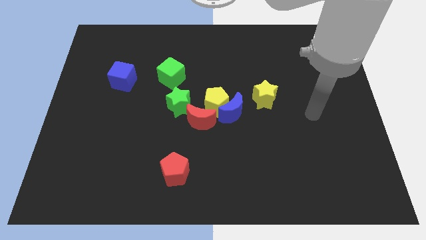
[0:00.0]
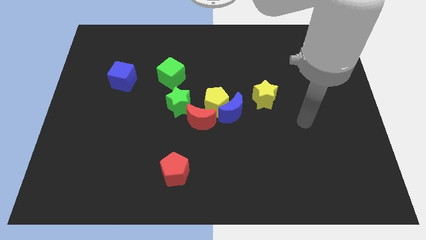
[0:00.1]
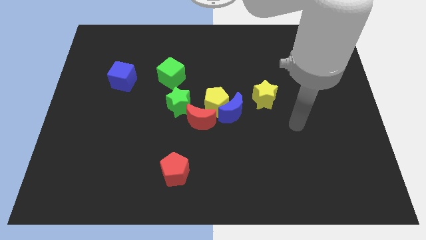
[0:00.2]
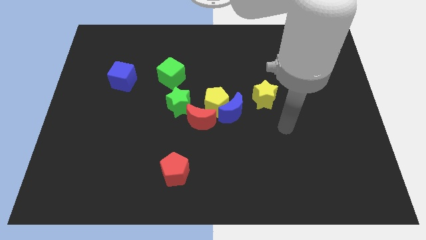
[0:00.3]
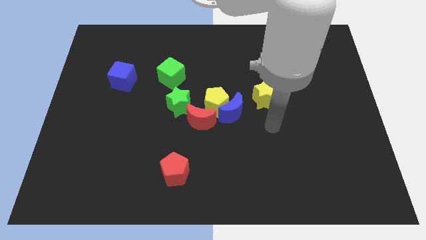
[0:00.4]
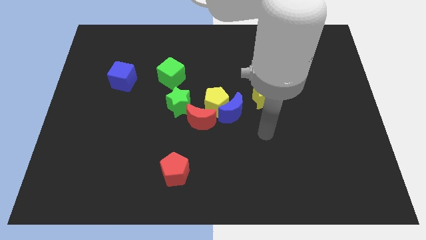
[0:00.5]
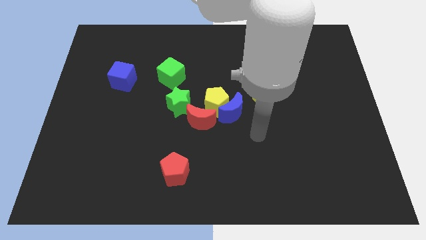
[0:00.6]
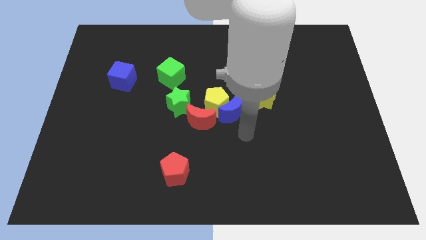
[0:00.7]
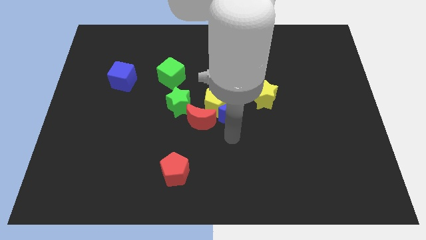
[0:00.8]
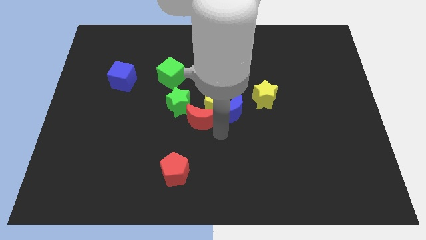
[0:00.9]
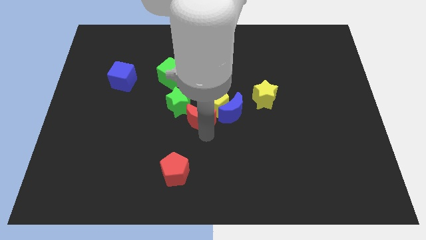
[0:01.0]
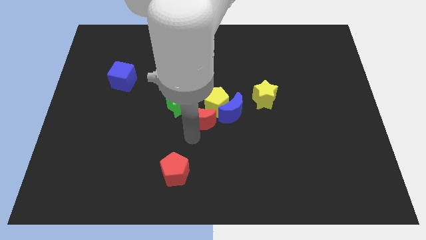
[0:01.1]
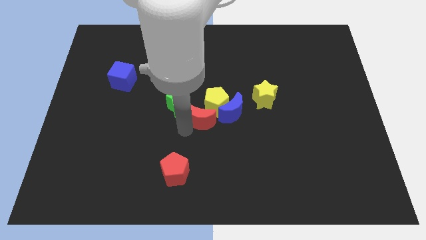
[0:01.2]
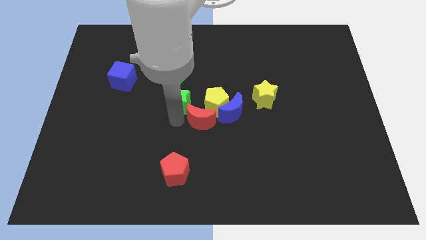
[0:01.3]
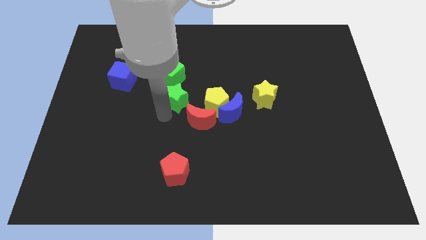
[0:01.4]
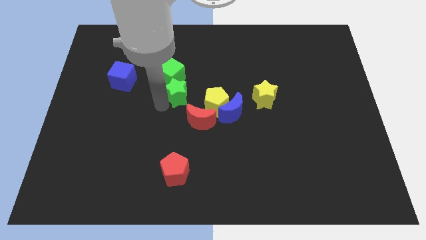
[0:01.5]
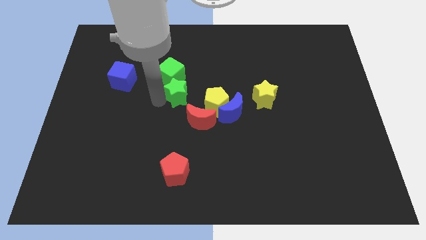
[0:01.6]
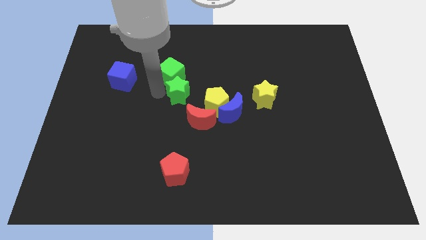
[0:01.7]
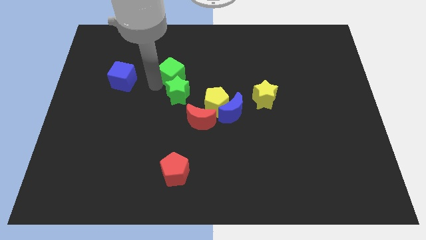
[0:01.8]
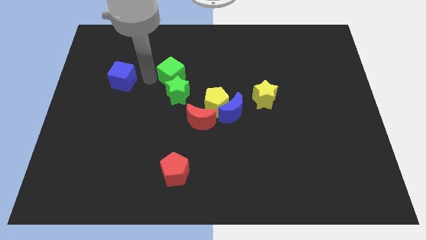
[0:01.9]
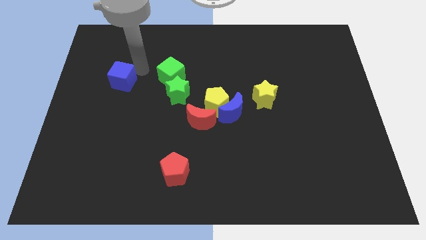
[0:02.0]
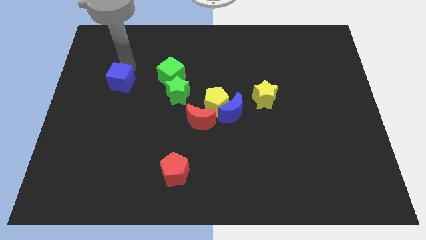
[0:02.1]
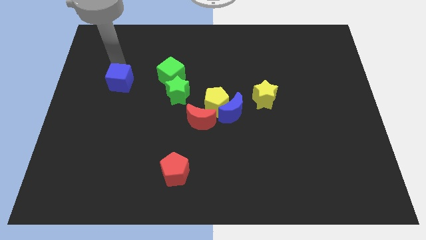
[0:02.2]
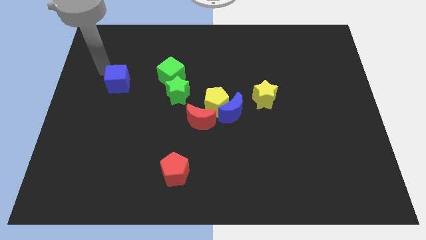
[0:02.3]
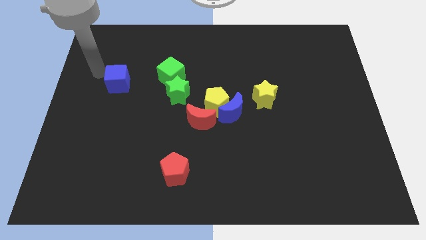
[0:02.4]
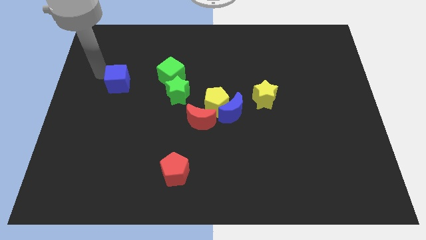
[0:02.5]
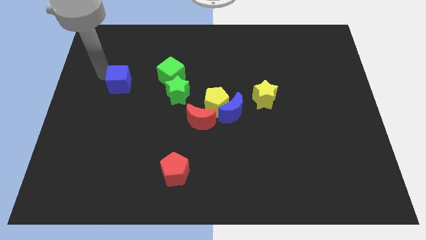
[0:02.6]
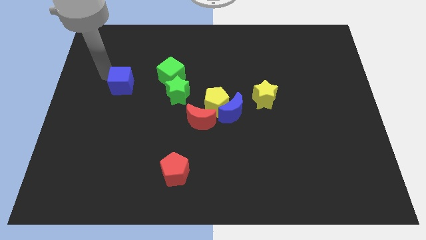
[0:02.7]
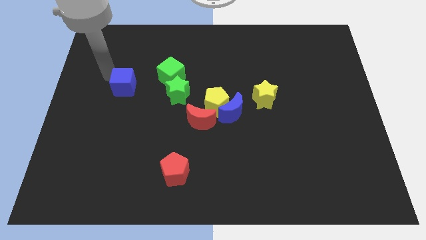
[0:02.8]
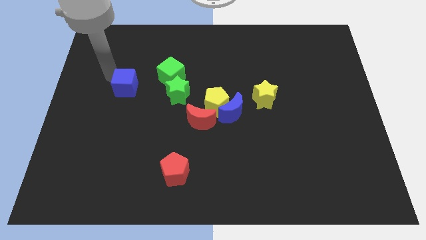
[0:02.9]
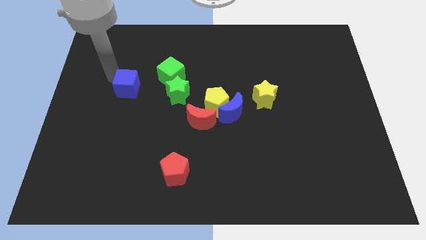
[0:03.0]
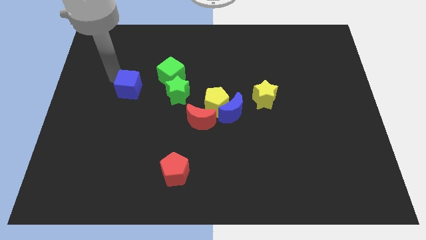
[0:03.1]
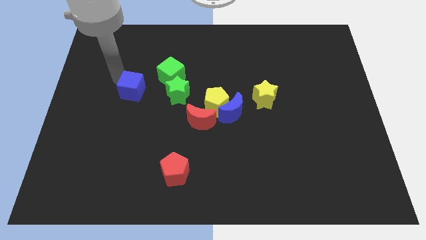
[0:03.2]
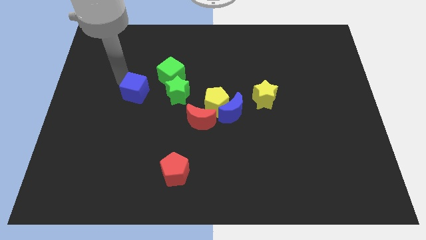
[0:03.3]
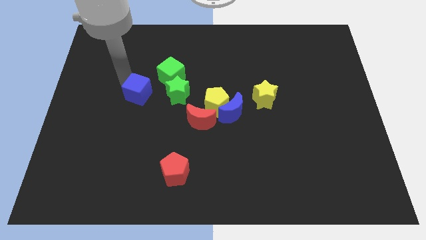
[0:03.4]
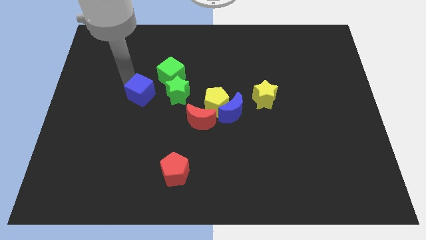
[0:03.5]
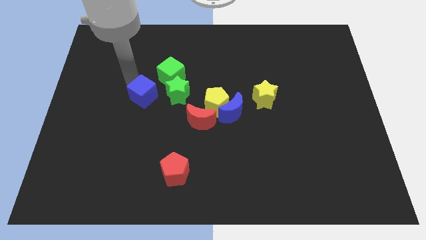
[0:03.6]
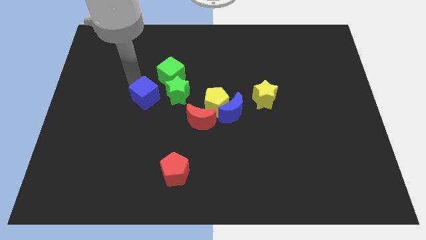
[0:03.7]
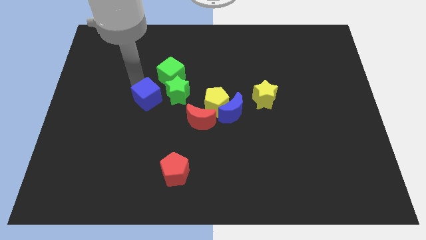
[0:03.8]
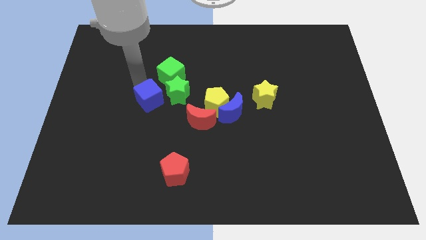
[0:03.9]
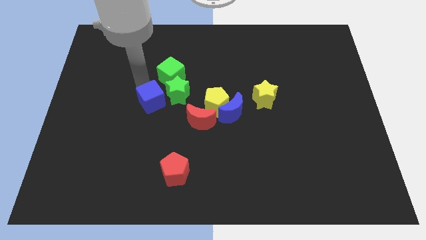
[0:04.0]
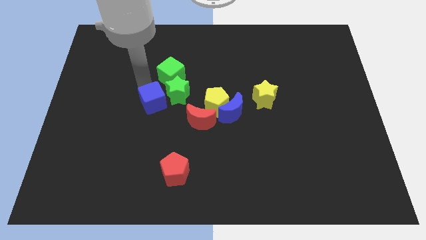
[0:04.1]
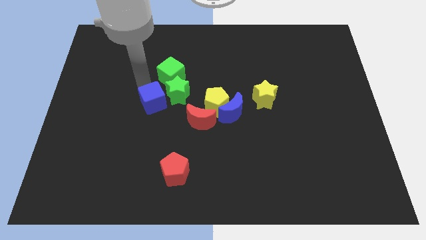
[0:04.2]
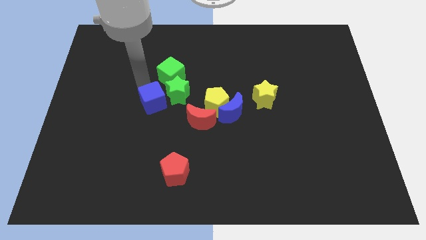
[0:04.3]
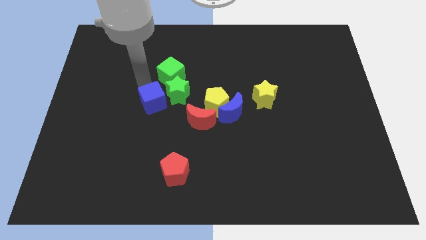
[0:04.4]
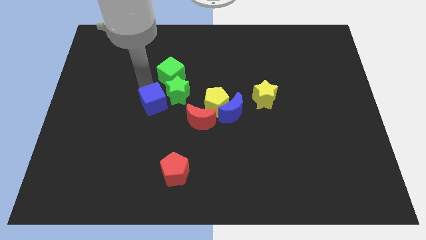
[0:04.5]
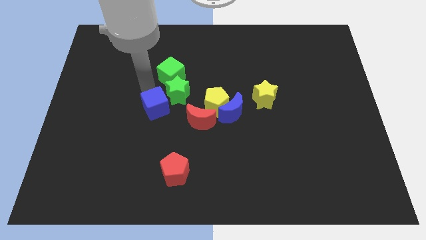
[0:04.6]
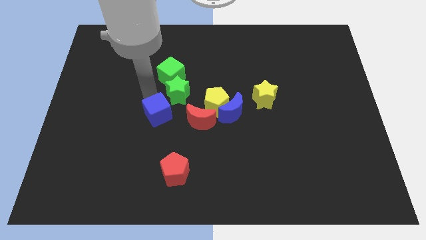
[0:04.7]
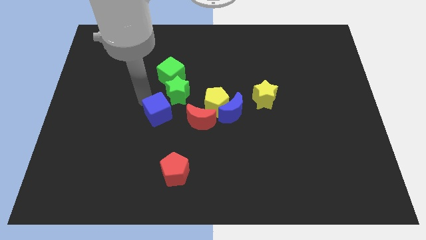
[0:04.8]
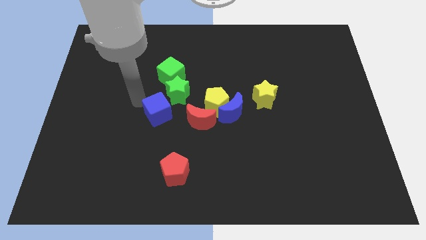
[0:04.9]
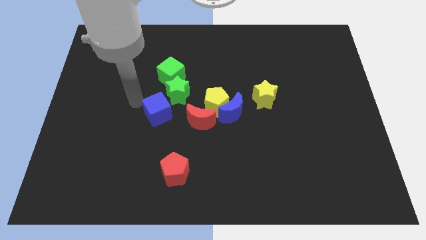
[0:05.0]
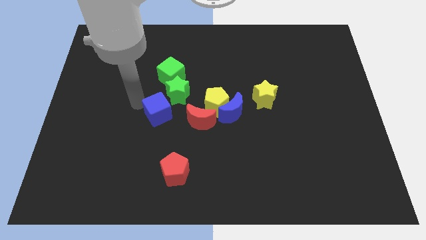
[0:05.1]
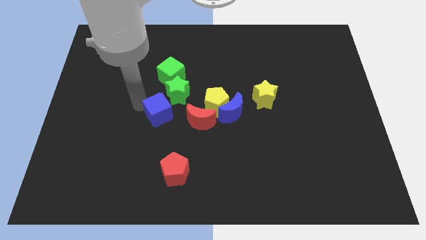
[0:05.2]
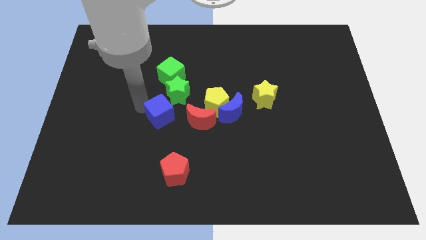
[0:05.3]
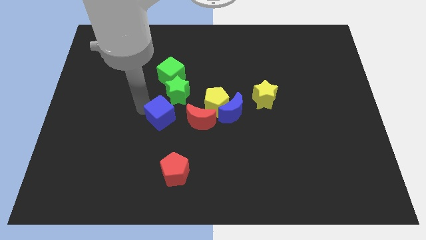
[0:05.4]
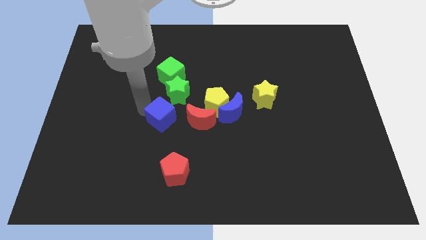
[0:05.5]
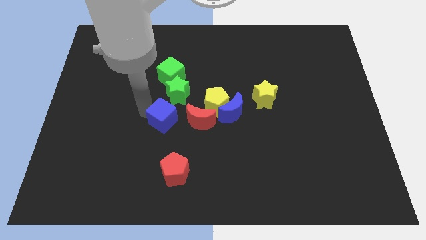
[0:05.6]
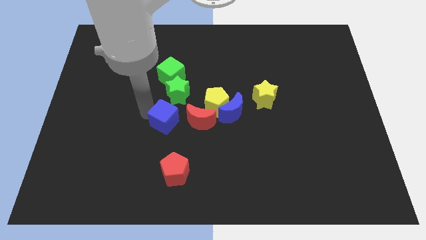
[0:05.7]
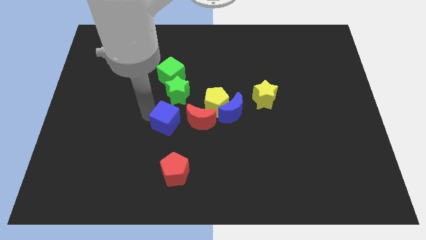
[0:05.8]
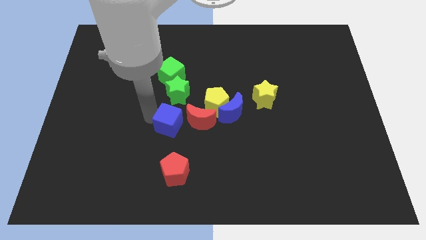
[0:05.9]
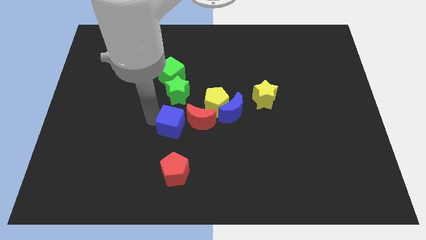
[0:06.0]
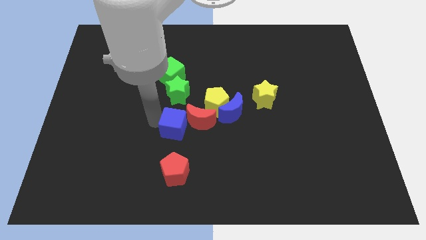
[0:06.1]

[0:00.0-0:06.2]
push the blue cube close to the red moon

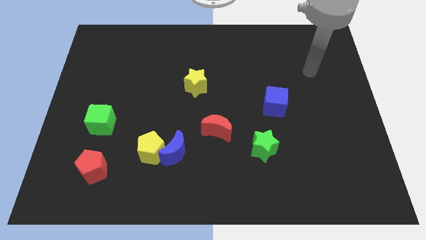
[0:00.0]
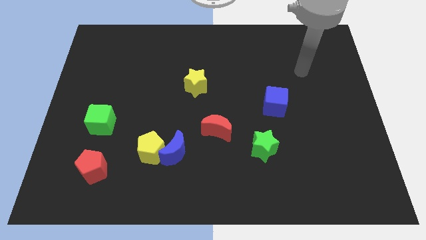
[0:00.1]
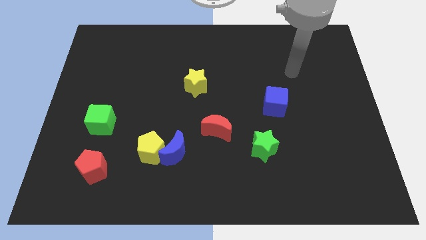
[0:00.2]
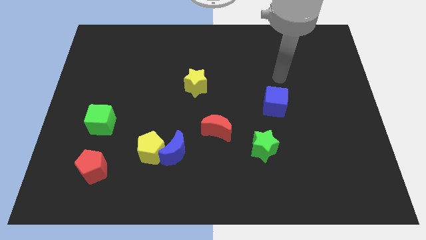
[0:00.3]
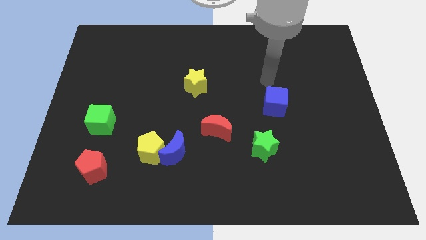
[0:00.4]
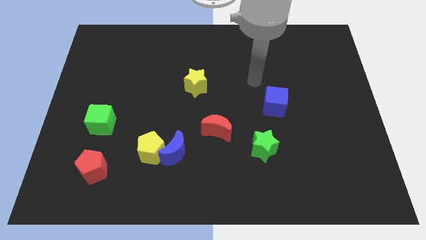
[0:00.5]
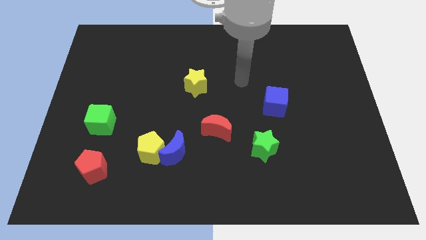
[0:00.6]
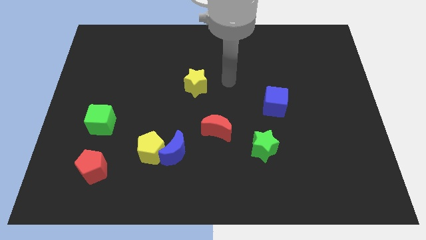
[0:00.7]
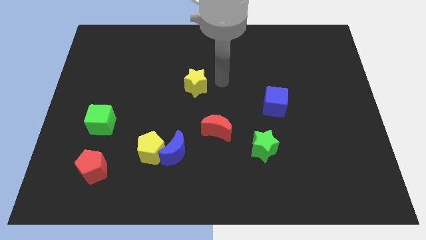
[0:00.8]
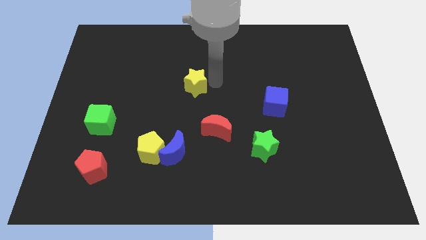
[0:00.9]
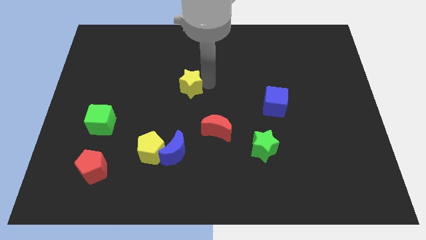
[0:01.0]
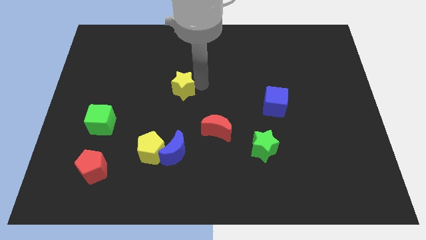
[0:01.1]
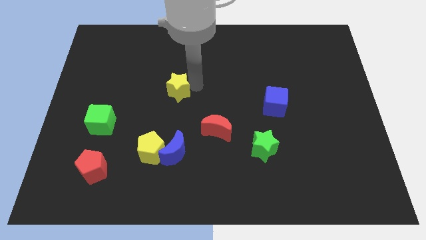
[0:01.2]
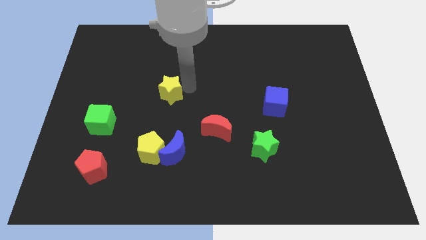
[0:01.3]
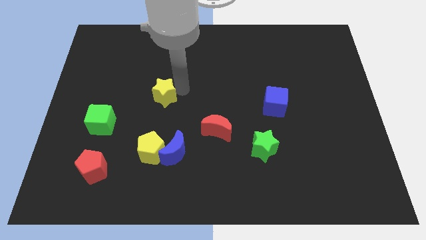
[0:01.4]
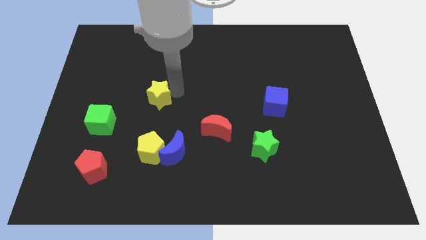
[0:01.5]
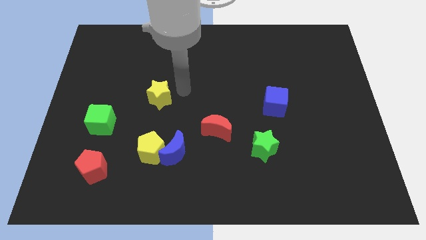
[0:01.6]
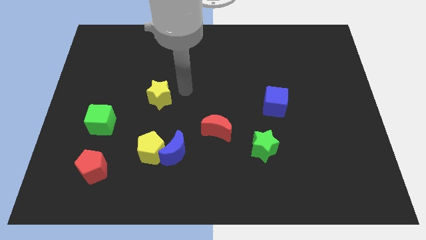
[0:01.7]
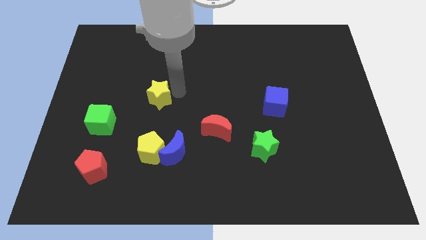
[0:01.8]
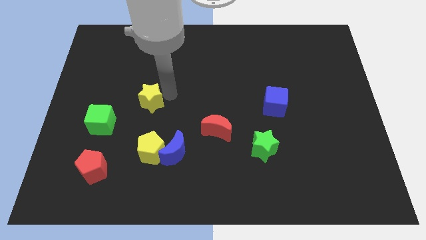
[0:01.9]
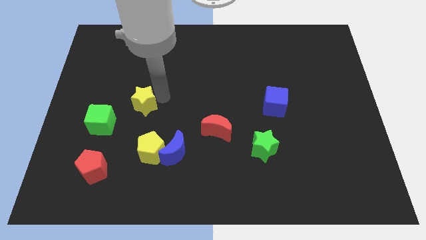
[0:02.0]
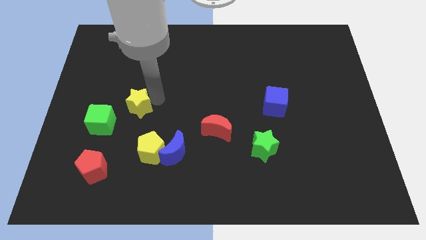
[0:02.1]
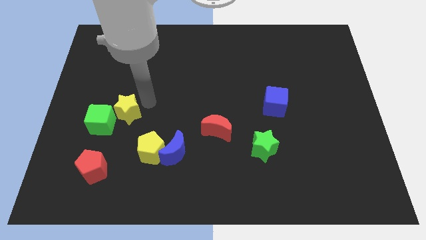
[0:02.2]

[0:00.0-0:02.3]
push the yellow star to the green cube
